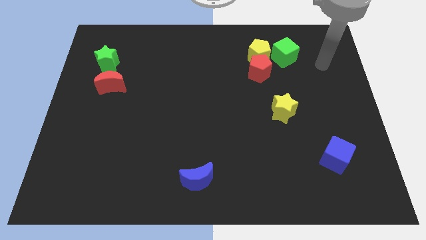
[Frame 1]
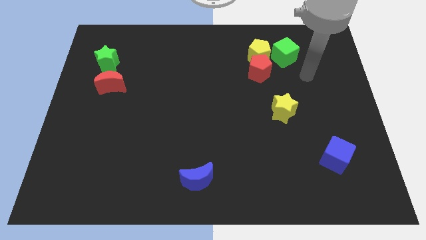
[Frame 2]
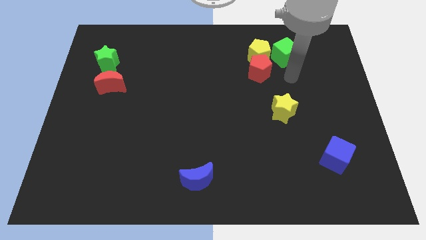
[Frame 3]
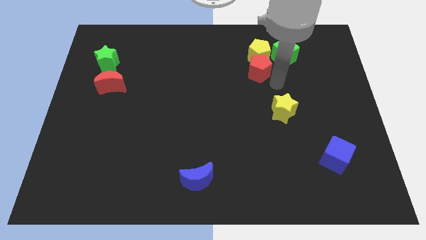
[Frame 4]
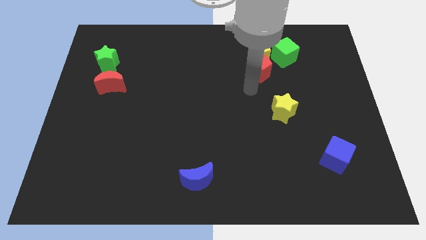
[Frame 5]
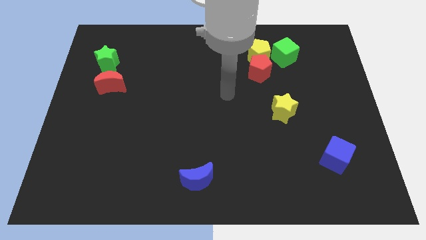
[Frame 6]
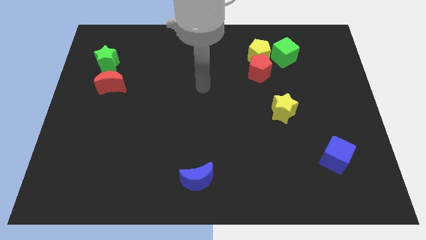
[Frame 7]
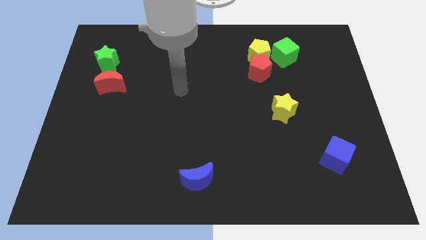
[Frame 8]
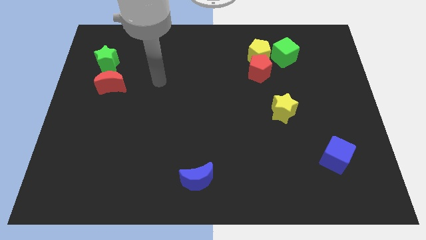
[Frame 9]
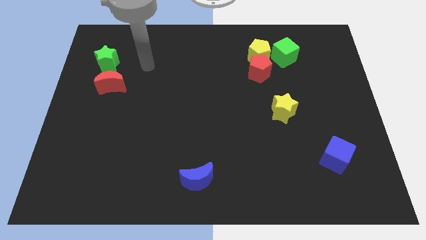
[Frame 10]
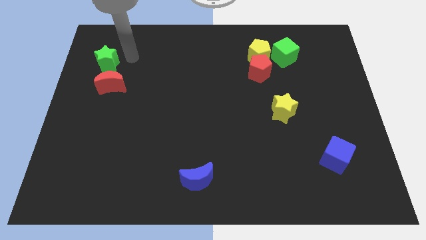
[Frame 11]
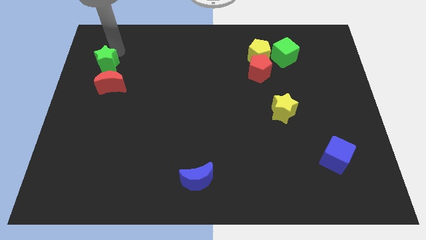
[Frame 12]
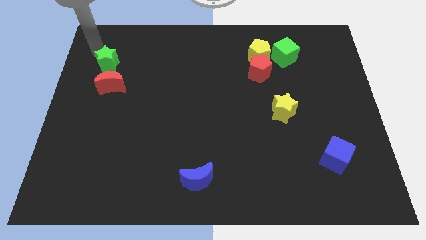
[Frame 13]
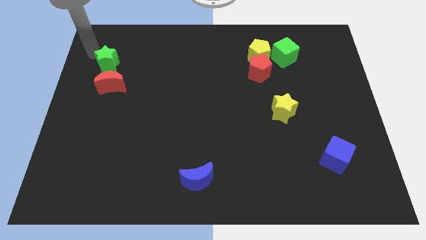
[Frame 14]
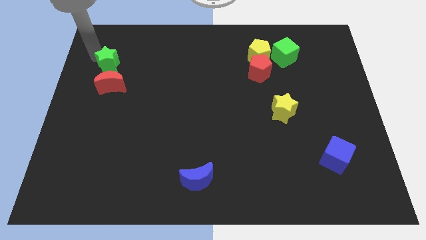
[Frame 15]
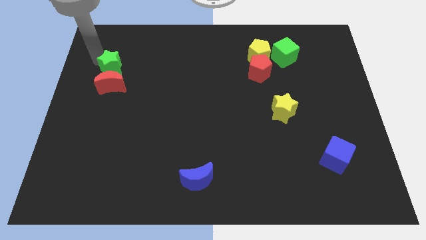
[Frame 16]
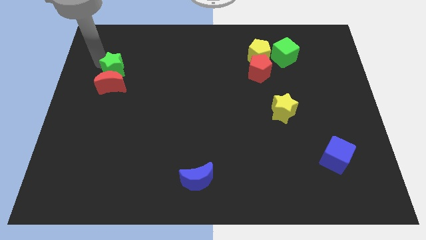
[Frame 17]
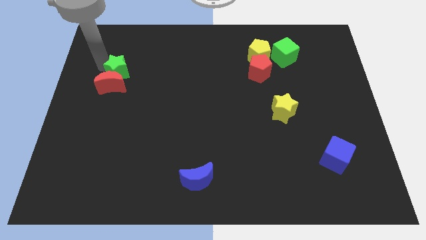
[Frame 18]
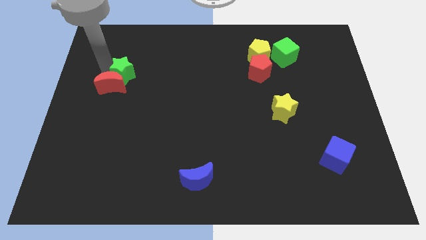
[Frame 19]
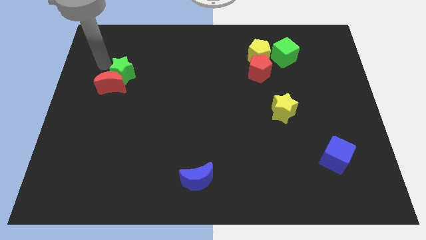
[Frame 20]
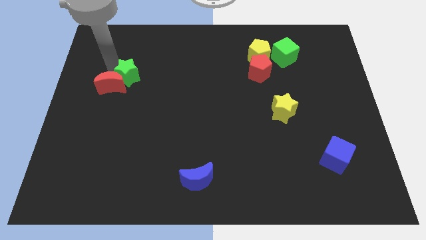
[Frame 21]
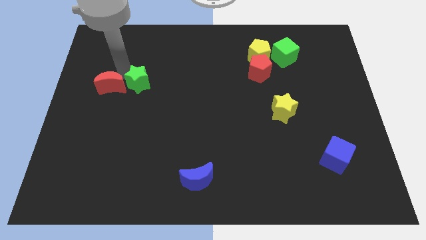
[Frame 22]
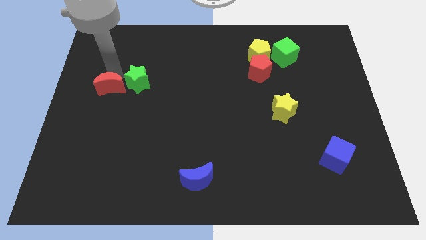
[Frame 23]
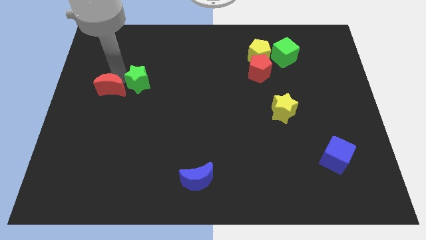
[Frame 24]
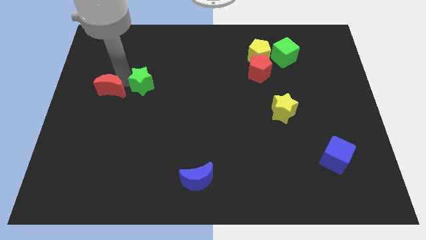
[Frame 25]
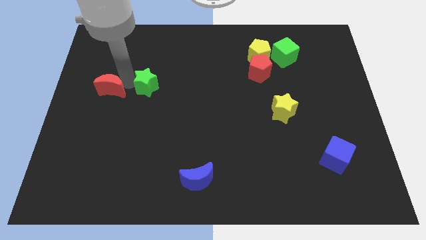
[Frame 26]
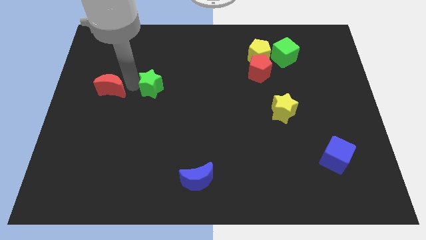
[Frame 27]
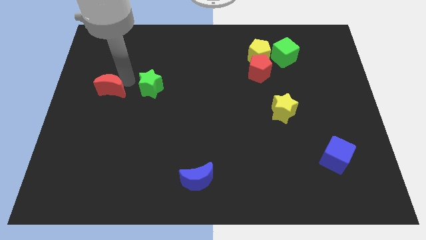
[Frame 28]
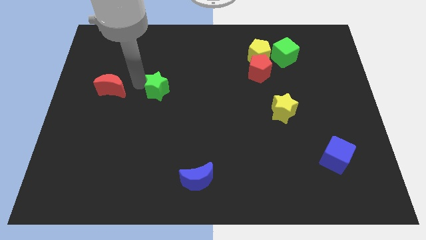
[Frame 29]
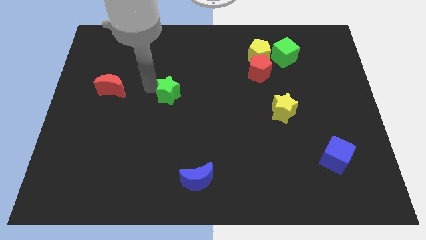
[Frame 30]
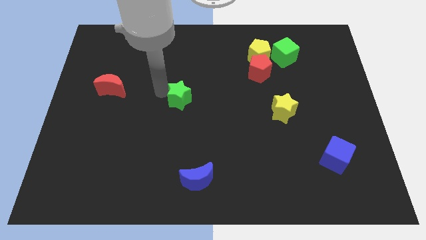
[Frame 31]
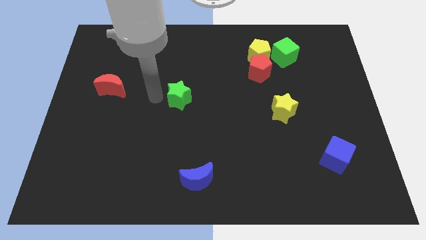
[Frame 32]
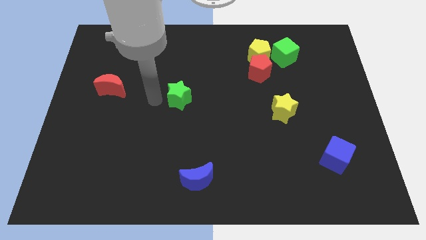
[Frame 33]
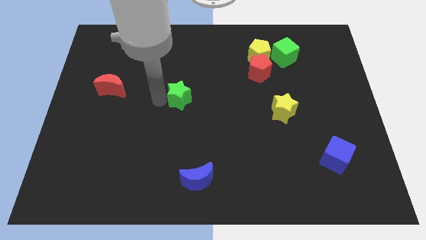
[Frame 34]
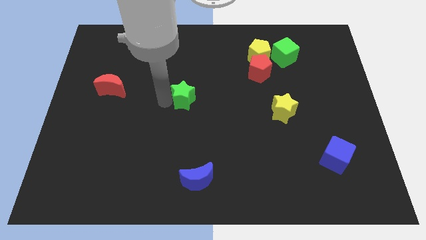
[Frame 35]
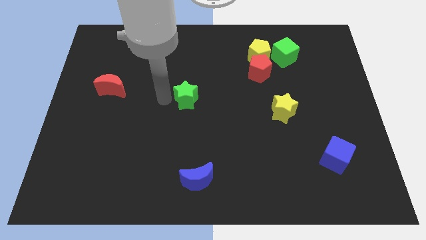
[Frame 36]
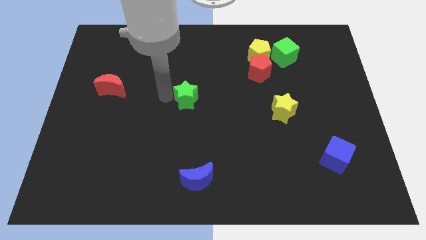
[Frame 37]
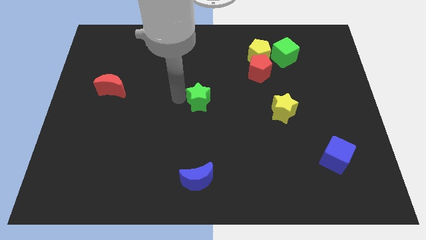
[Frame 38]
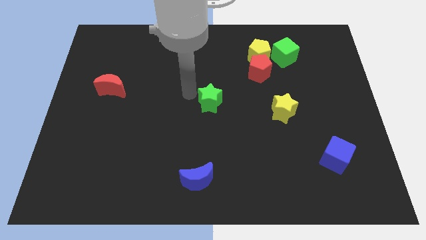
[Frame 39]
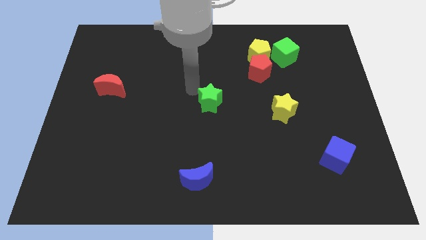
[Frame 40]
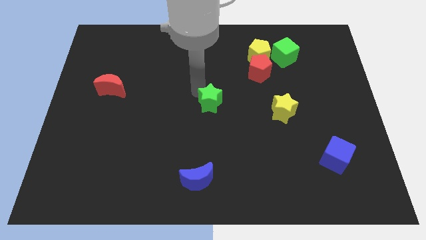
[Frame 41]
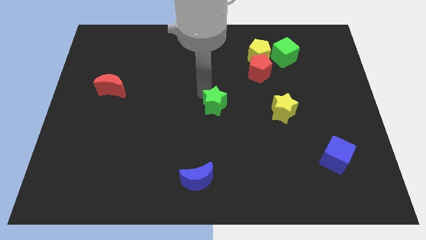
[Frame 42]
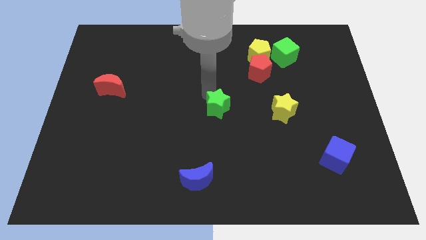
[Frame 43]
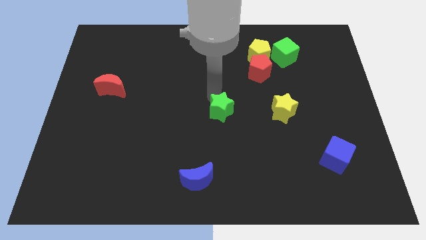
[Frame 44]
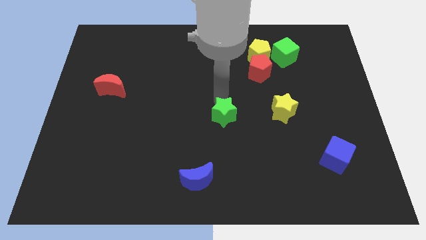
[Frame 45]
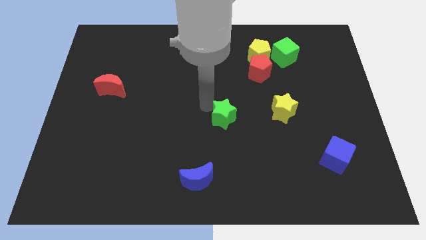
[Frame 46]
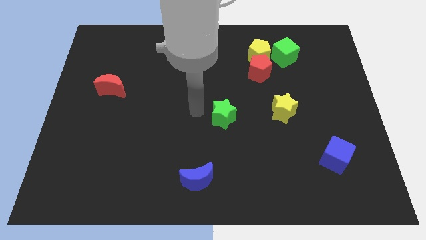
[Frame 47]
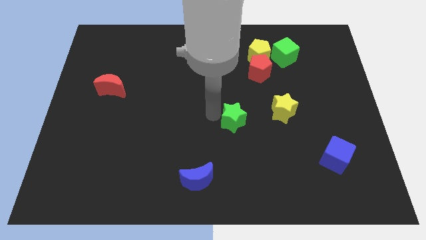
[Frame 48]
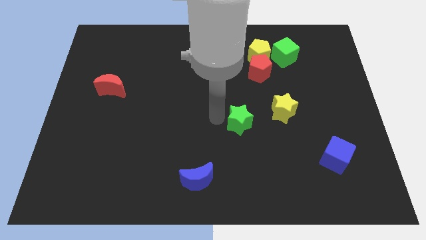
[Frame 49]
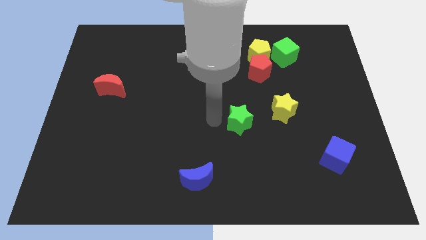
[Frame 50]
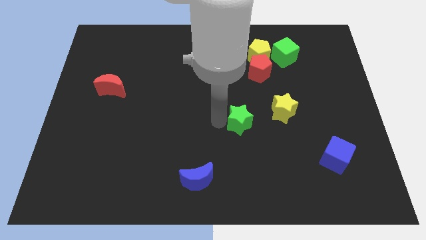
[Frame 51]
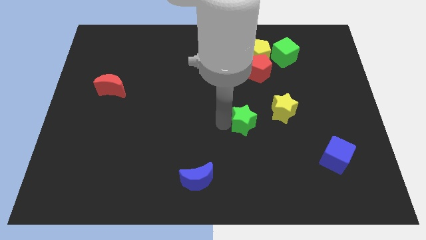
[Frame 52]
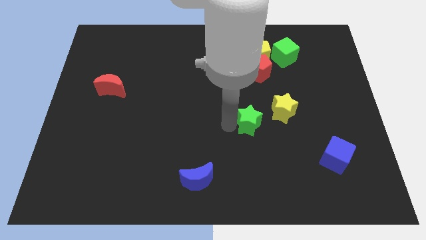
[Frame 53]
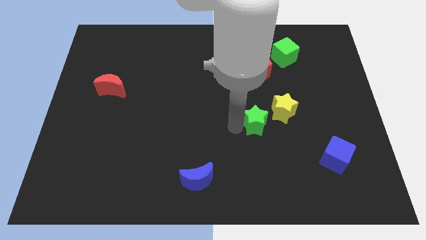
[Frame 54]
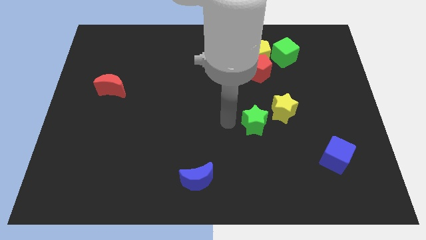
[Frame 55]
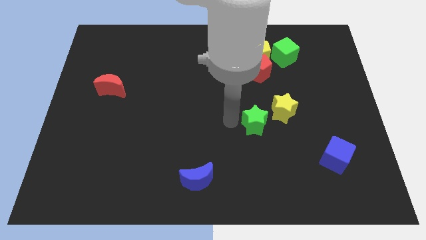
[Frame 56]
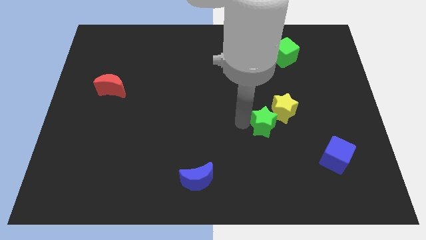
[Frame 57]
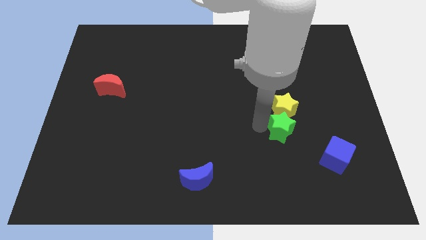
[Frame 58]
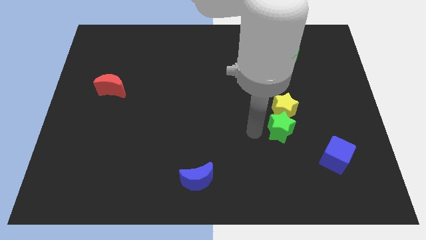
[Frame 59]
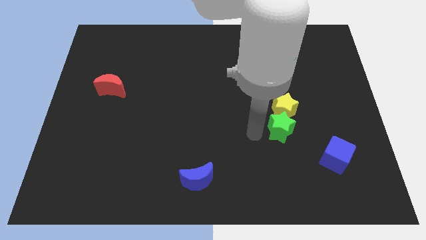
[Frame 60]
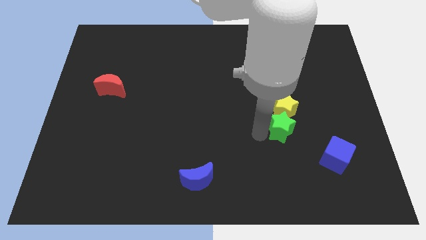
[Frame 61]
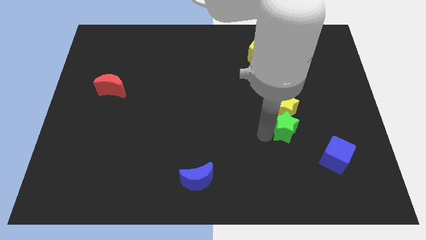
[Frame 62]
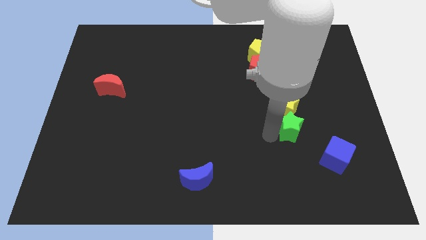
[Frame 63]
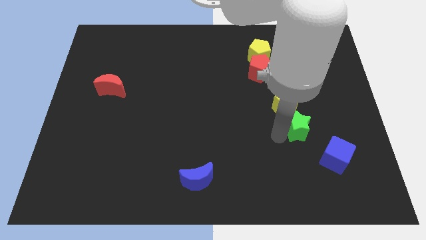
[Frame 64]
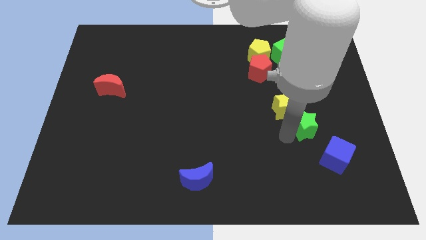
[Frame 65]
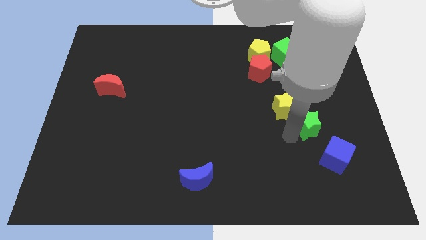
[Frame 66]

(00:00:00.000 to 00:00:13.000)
move the green star to the top of the blue cube

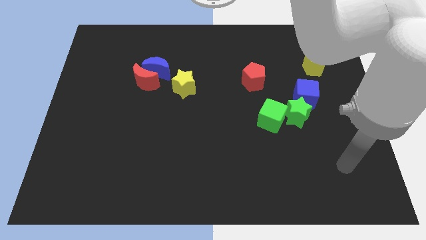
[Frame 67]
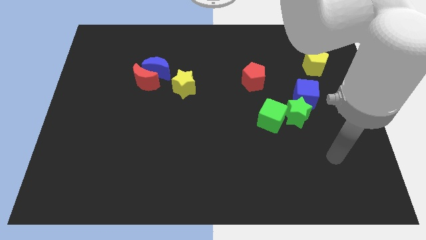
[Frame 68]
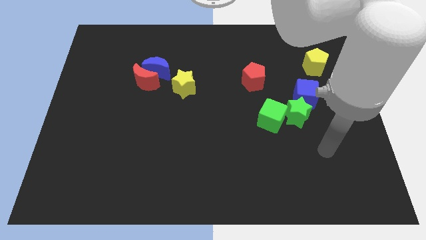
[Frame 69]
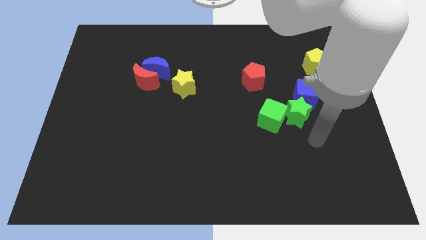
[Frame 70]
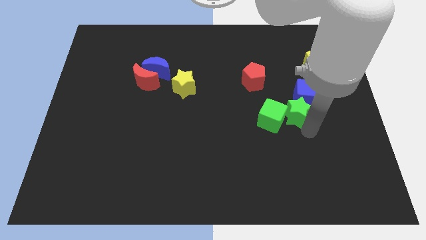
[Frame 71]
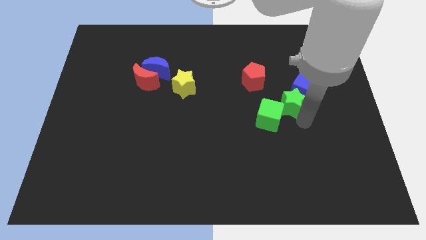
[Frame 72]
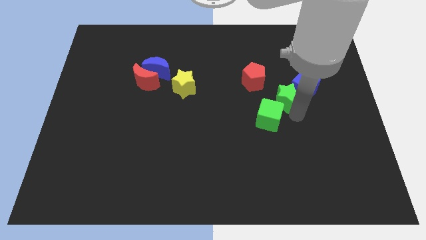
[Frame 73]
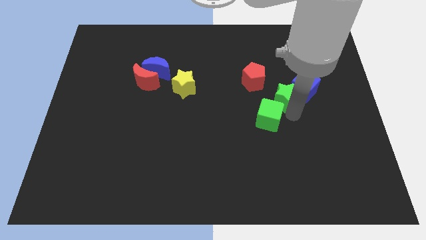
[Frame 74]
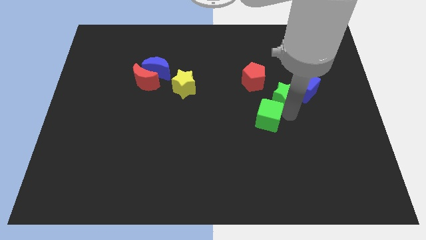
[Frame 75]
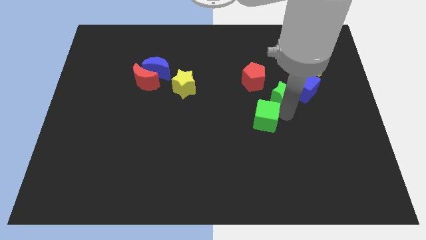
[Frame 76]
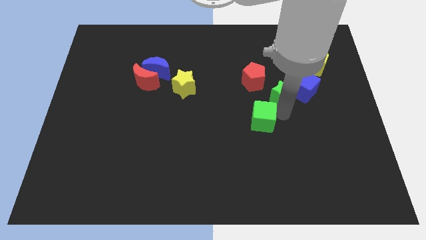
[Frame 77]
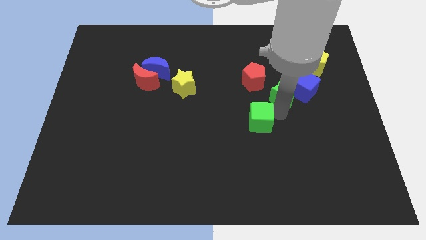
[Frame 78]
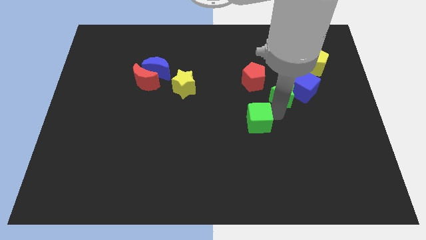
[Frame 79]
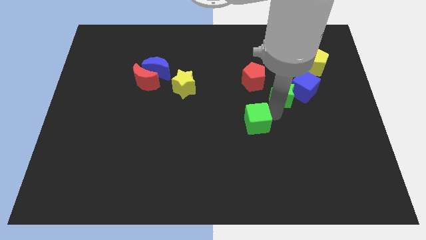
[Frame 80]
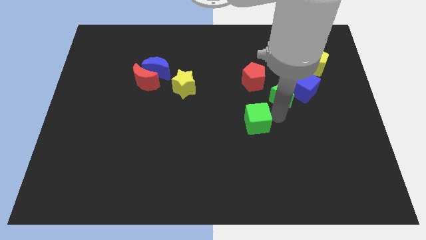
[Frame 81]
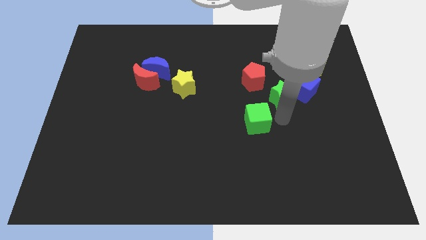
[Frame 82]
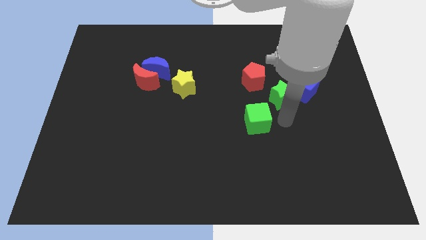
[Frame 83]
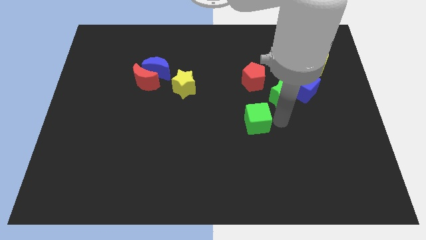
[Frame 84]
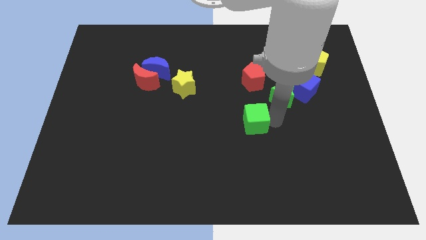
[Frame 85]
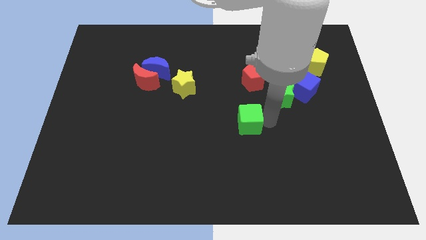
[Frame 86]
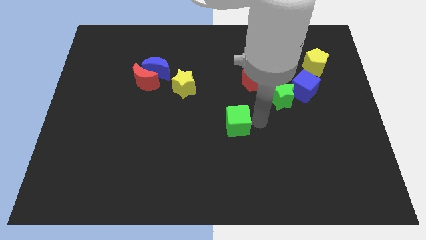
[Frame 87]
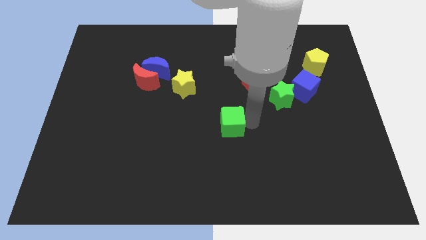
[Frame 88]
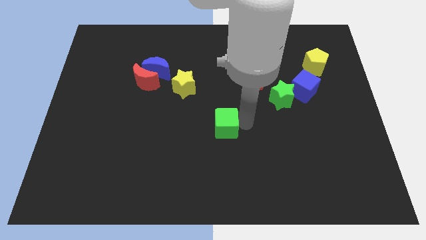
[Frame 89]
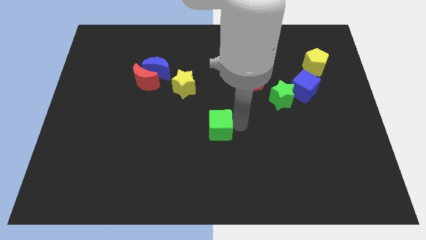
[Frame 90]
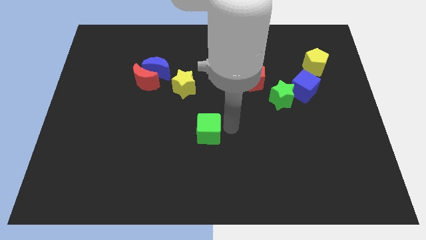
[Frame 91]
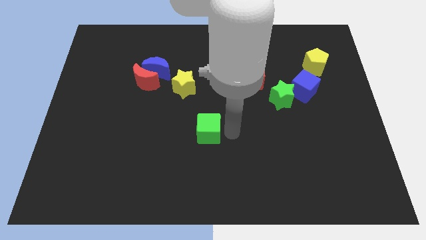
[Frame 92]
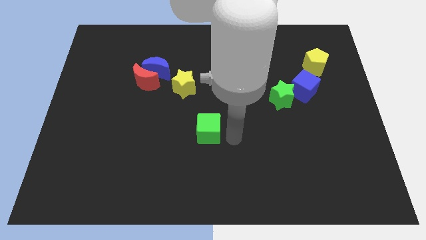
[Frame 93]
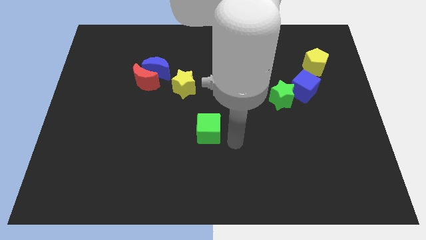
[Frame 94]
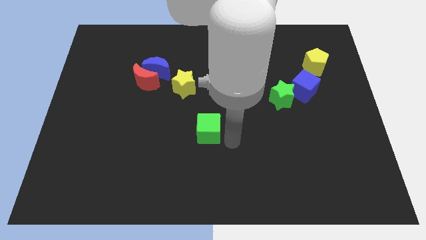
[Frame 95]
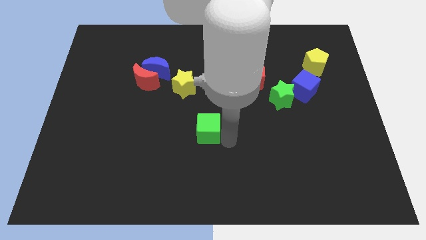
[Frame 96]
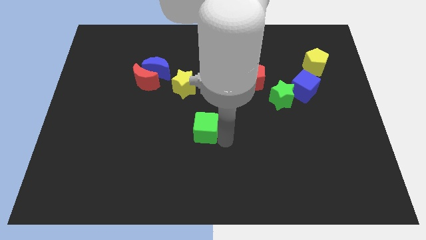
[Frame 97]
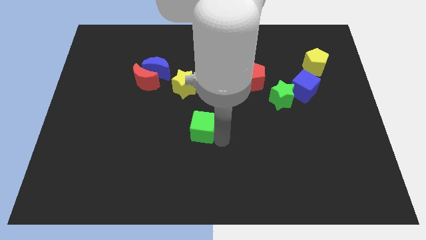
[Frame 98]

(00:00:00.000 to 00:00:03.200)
move the green cube to the bottom side of the yellow star
